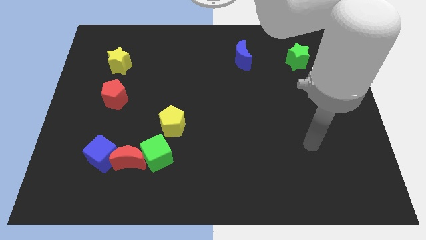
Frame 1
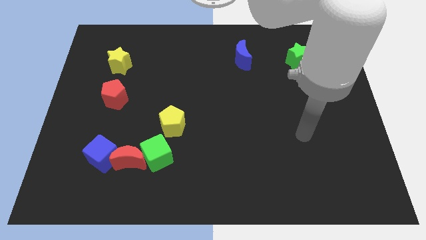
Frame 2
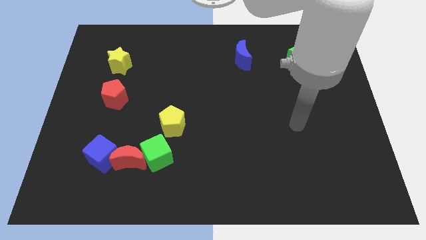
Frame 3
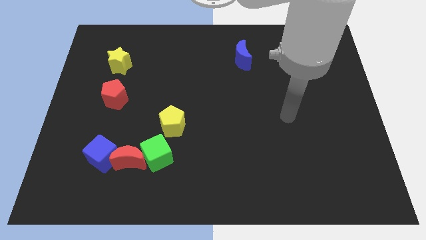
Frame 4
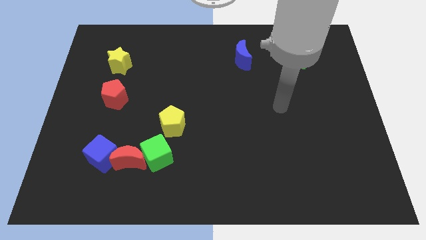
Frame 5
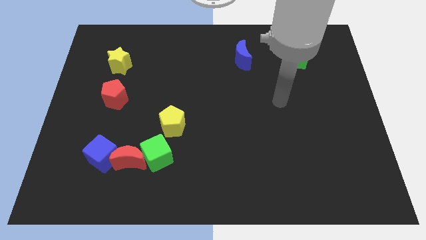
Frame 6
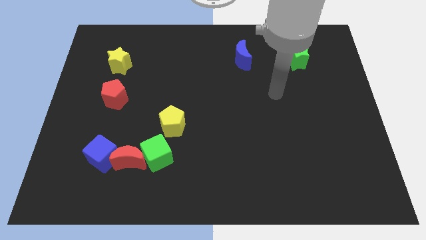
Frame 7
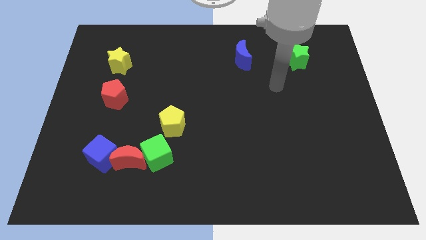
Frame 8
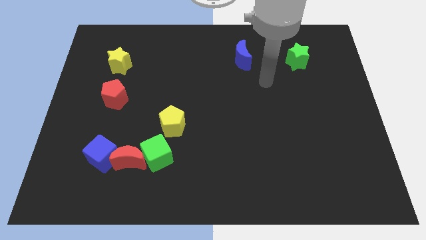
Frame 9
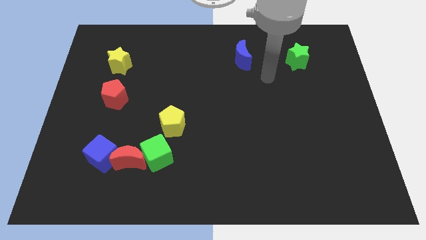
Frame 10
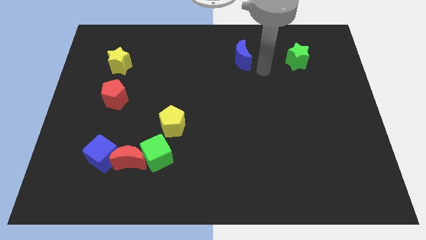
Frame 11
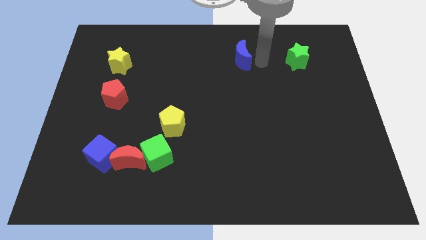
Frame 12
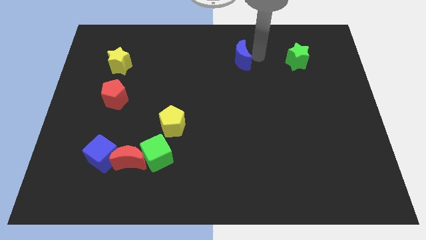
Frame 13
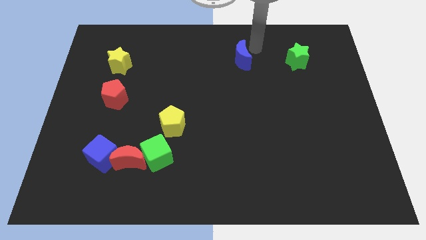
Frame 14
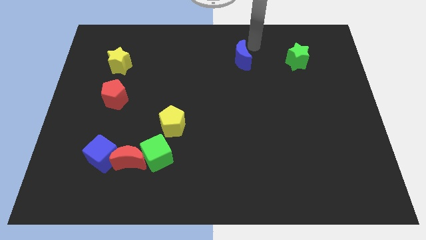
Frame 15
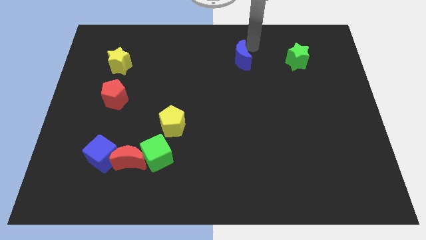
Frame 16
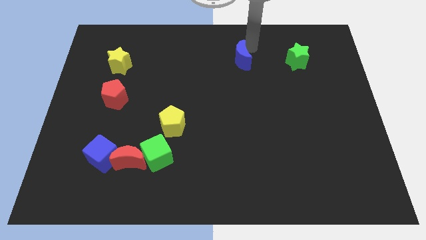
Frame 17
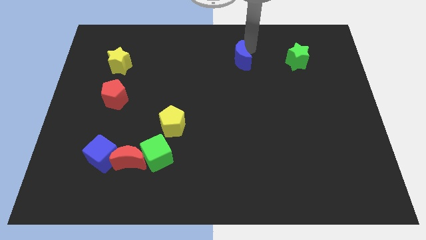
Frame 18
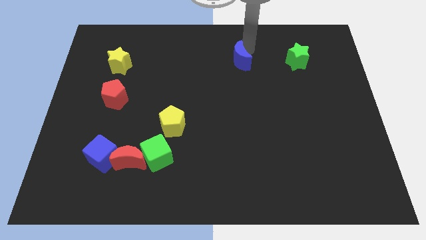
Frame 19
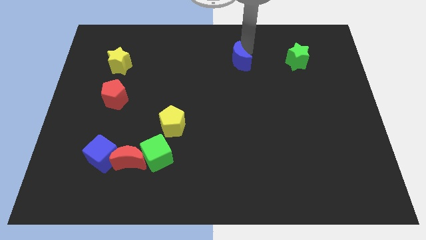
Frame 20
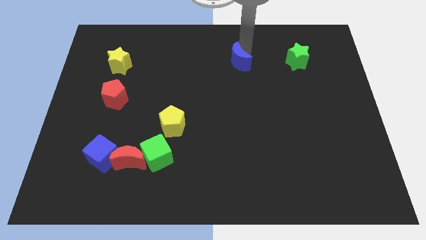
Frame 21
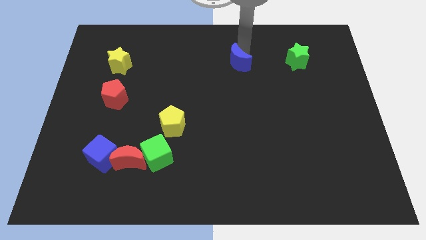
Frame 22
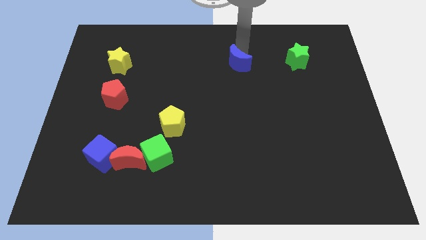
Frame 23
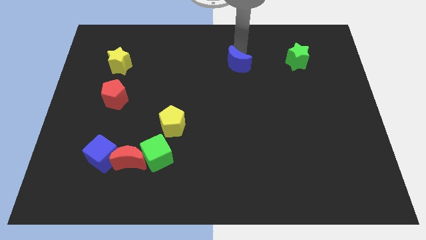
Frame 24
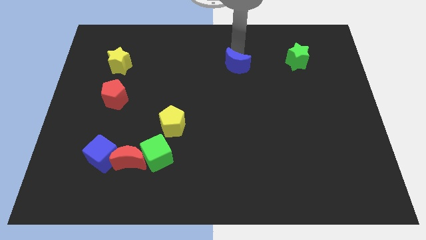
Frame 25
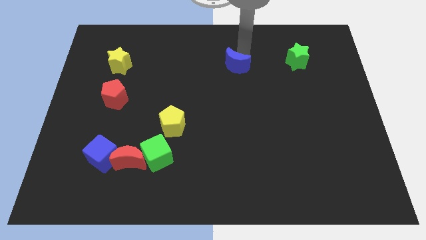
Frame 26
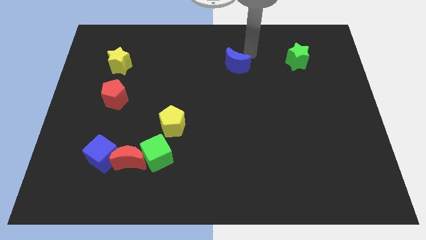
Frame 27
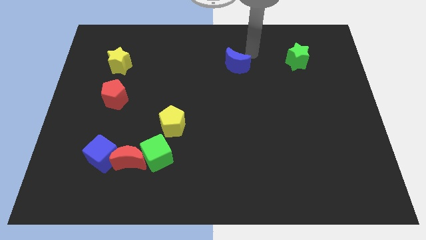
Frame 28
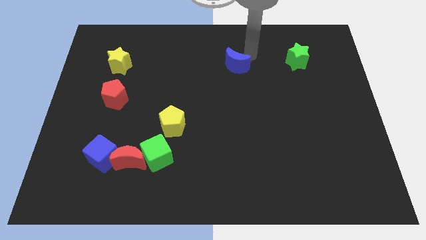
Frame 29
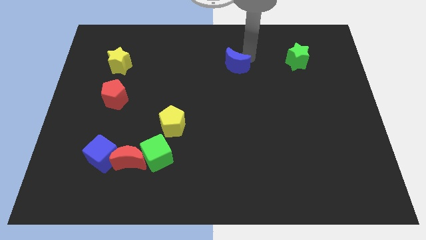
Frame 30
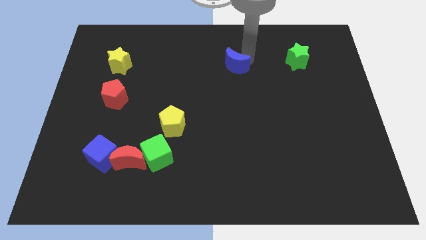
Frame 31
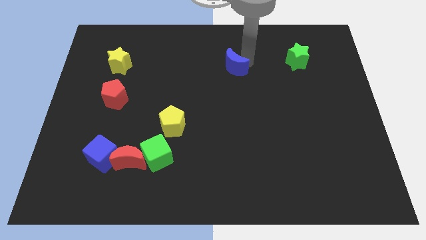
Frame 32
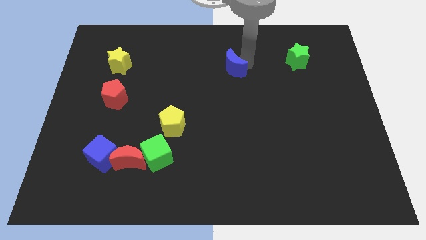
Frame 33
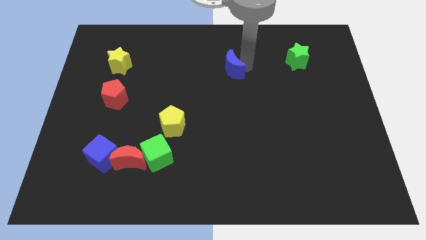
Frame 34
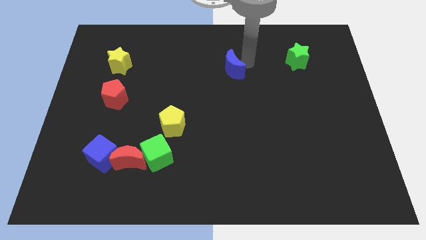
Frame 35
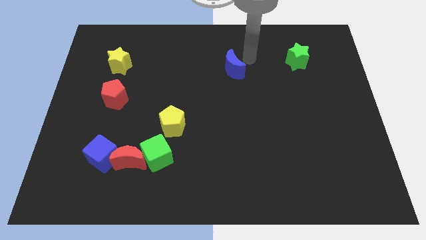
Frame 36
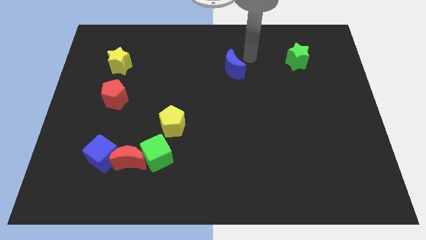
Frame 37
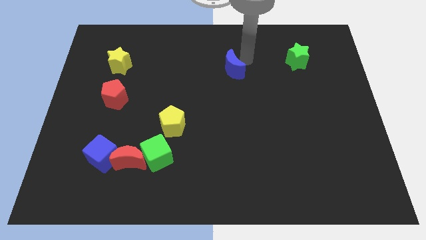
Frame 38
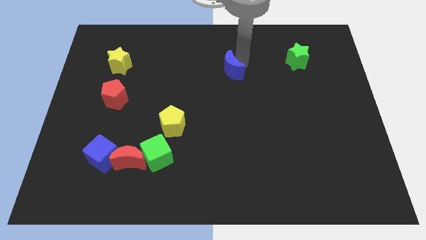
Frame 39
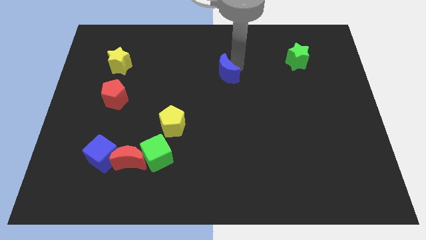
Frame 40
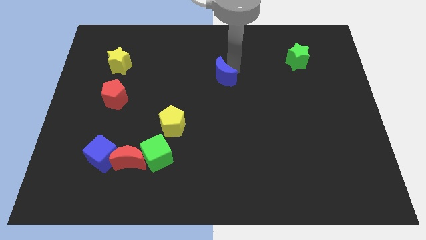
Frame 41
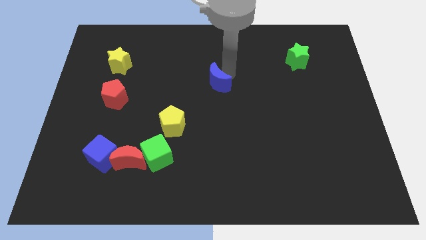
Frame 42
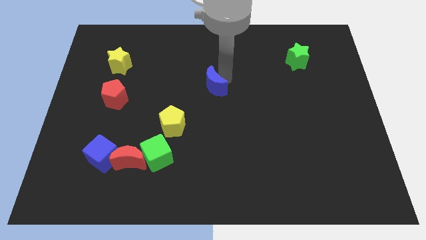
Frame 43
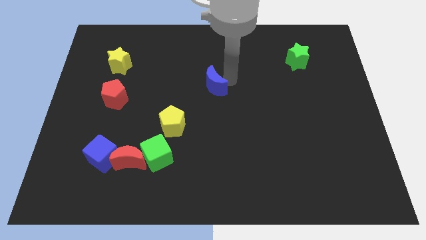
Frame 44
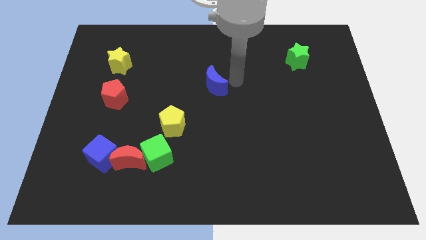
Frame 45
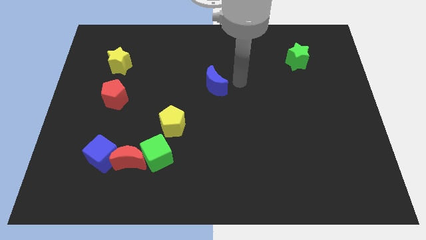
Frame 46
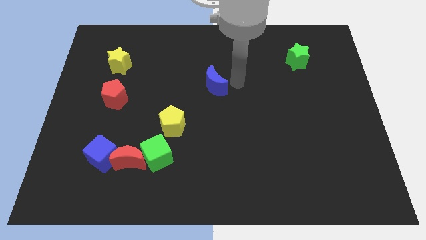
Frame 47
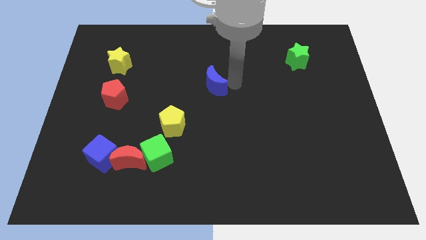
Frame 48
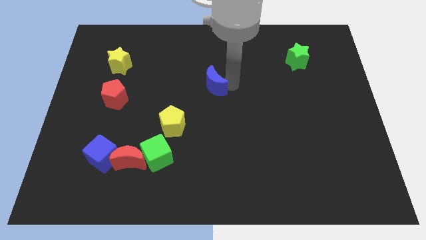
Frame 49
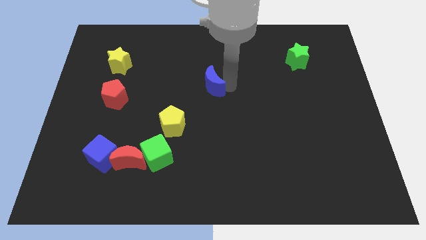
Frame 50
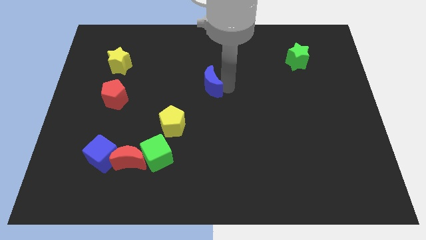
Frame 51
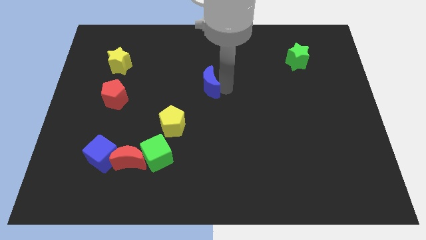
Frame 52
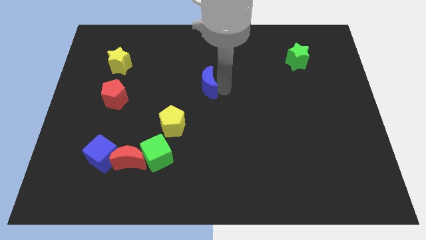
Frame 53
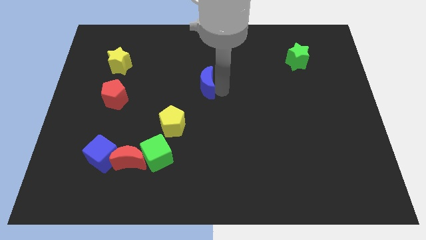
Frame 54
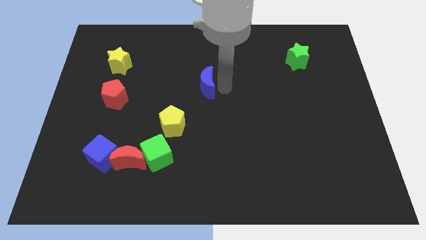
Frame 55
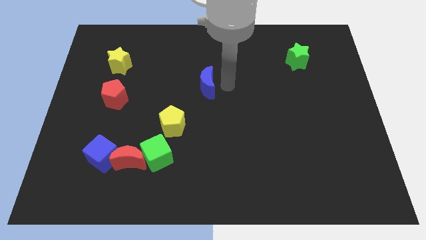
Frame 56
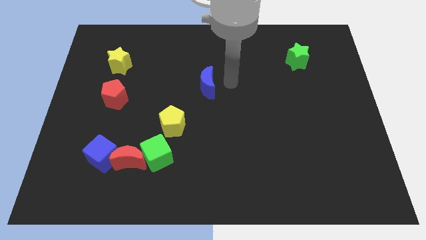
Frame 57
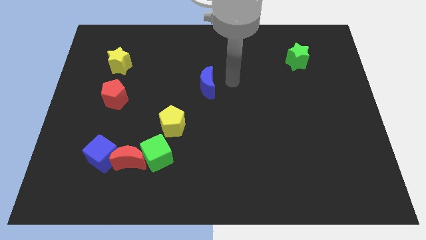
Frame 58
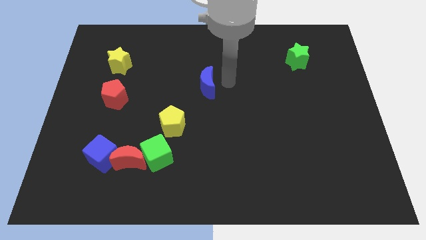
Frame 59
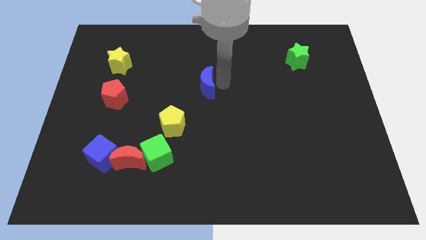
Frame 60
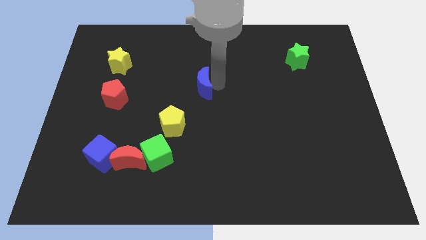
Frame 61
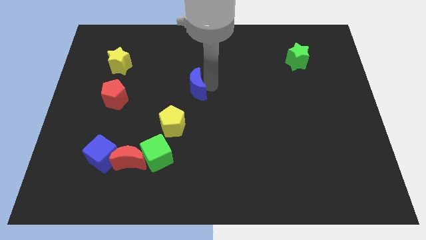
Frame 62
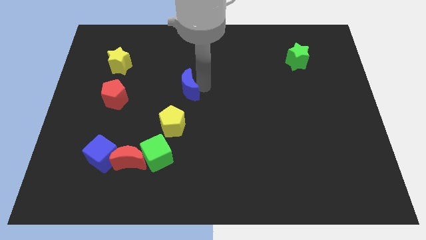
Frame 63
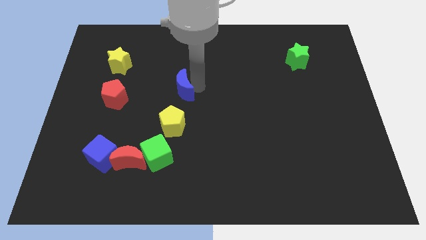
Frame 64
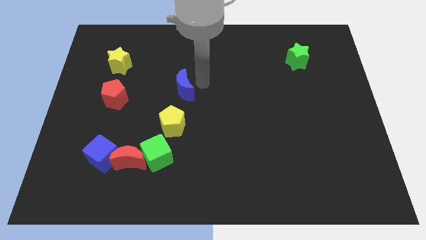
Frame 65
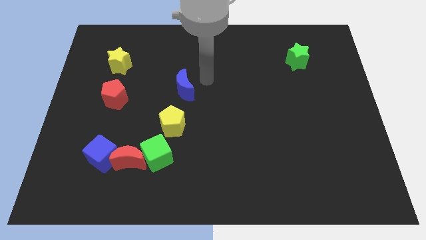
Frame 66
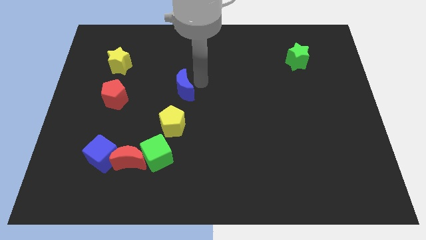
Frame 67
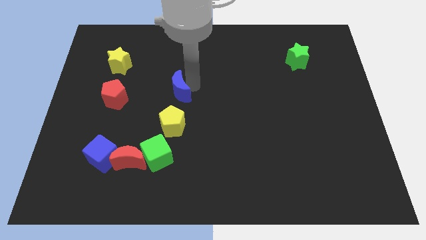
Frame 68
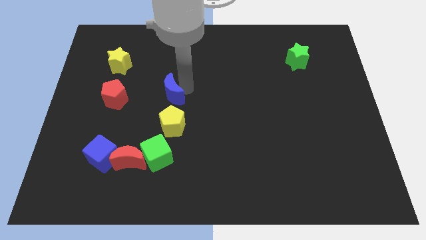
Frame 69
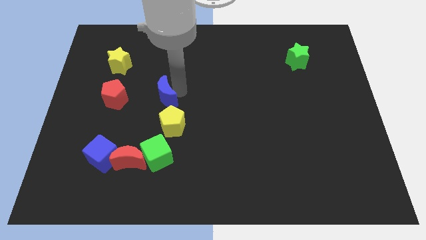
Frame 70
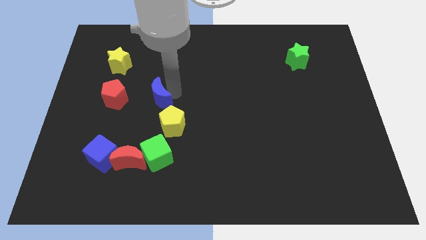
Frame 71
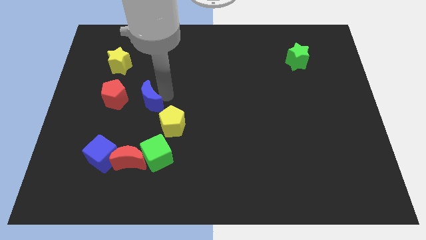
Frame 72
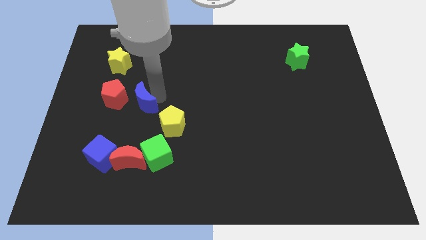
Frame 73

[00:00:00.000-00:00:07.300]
move the blue moon to the bottom right of the red pentagon

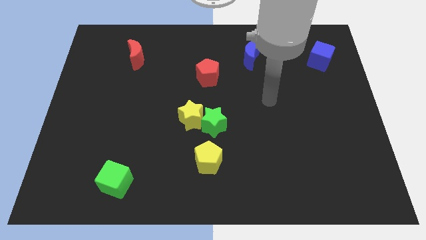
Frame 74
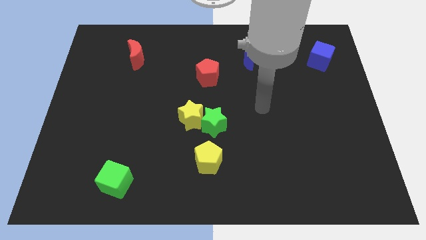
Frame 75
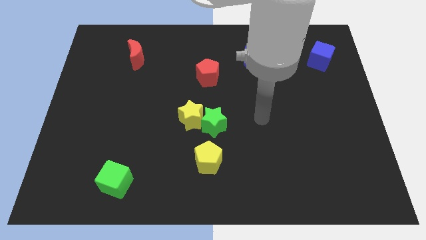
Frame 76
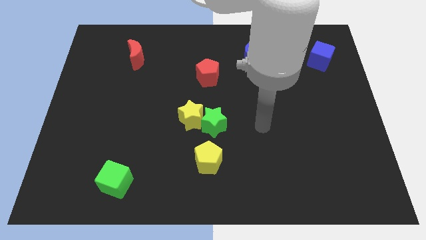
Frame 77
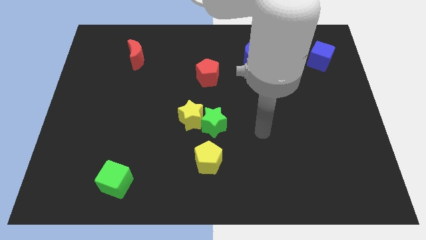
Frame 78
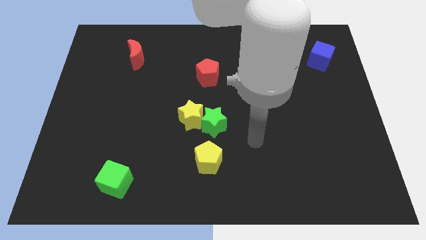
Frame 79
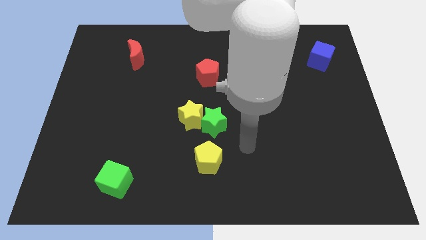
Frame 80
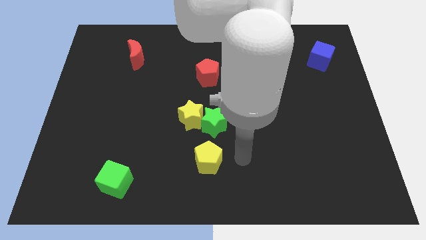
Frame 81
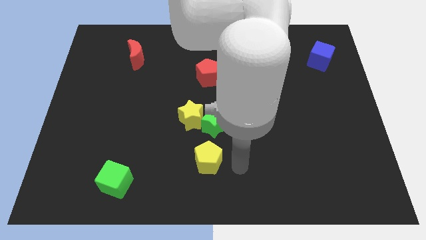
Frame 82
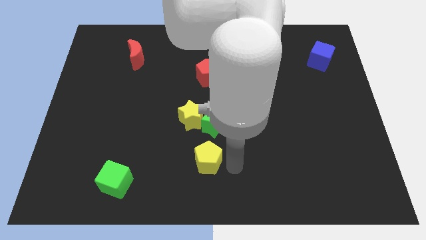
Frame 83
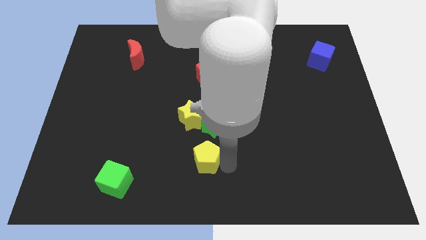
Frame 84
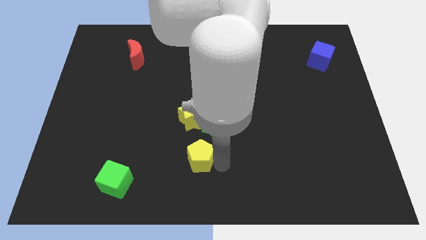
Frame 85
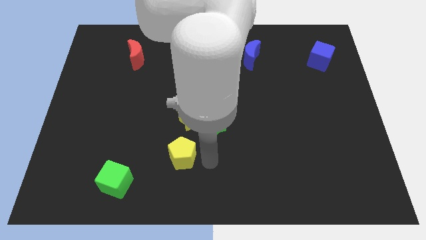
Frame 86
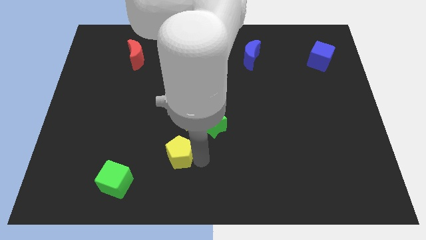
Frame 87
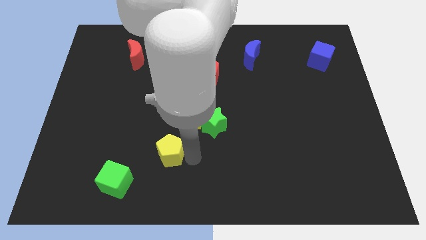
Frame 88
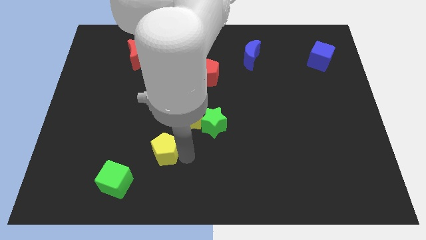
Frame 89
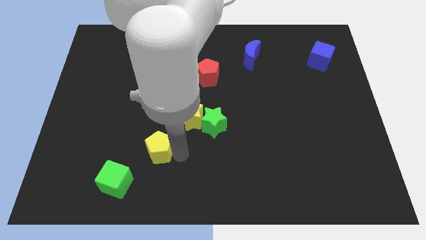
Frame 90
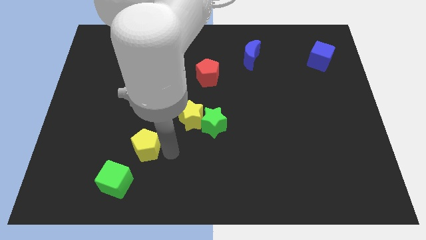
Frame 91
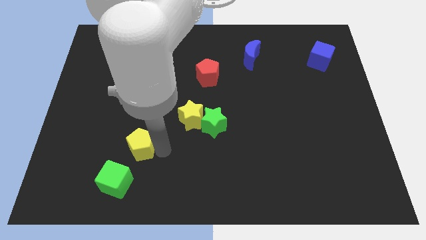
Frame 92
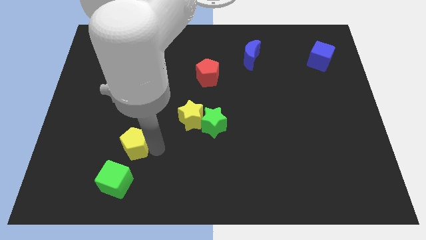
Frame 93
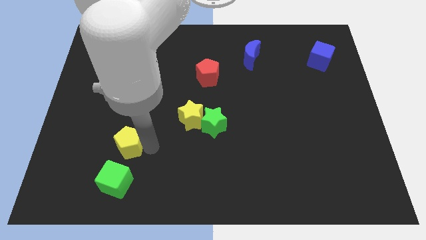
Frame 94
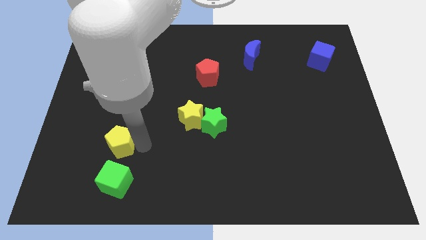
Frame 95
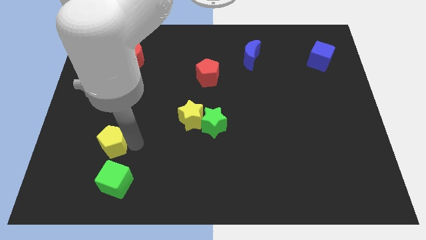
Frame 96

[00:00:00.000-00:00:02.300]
push the yellow pentagon to the top left side of the green cube
